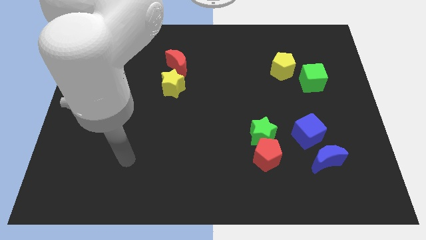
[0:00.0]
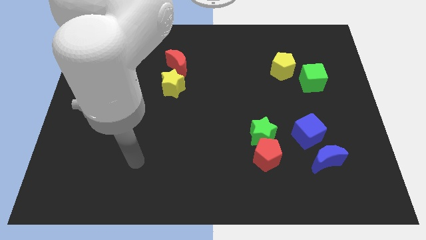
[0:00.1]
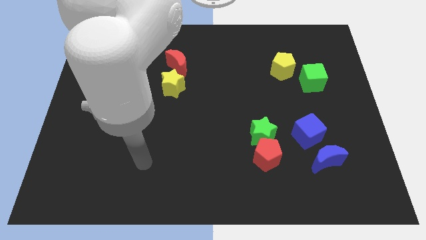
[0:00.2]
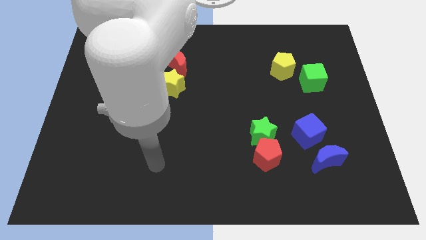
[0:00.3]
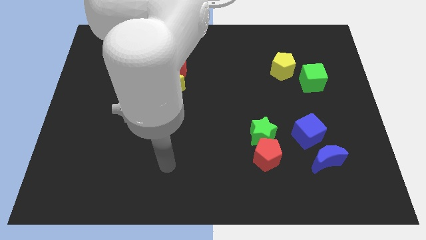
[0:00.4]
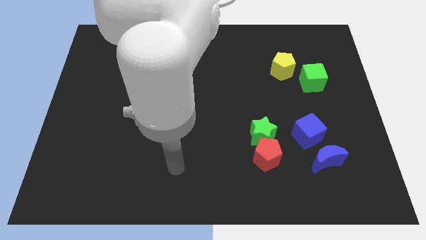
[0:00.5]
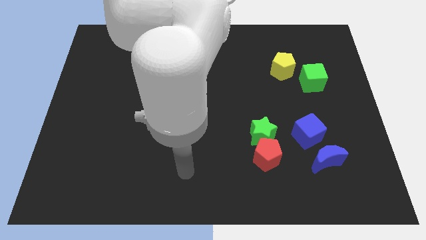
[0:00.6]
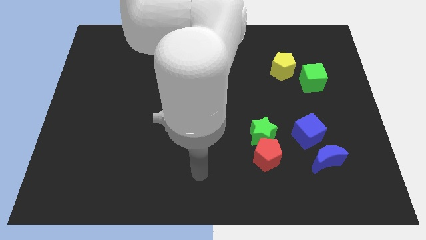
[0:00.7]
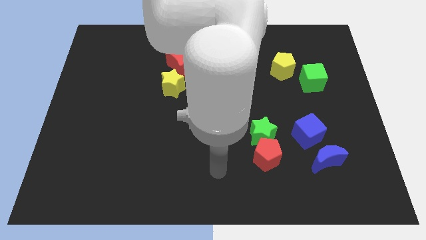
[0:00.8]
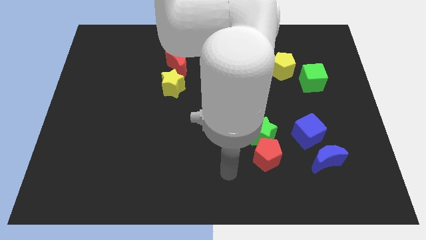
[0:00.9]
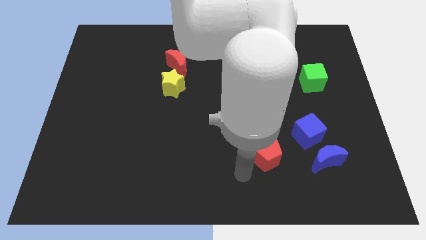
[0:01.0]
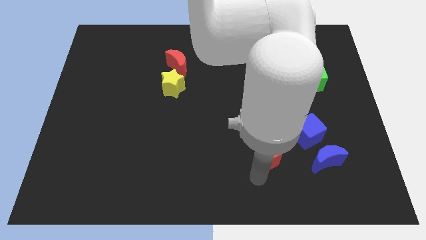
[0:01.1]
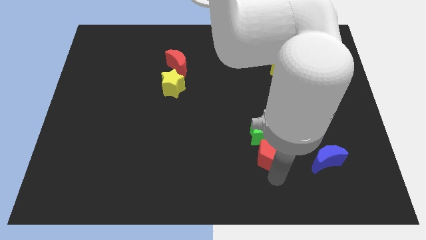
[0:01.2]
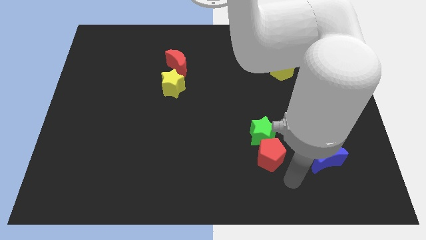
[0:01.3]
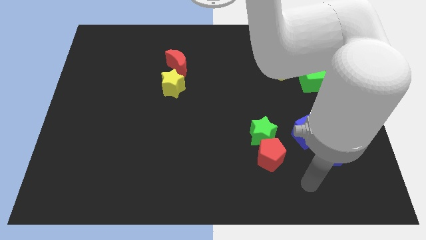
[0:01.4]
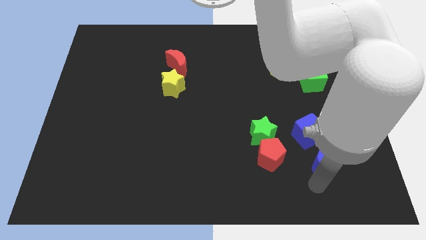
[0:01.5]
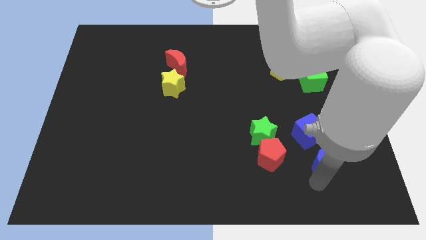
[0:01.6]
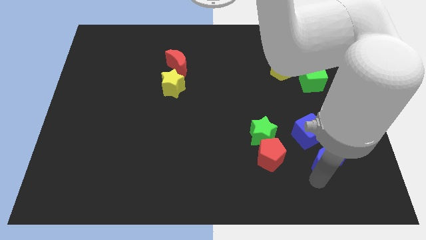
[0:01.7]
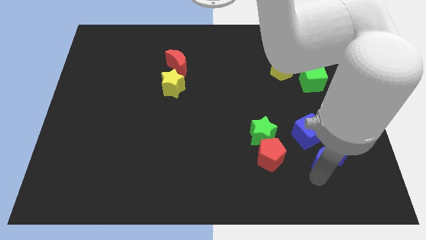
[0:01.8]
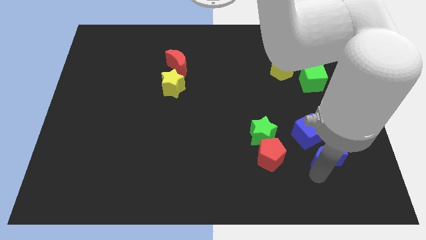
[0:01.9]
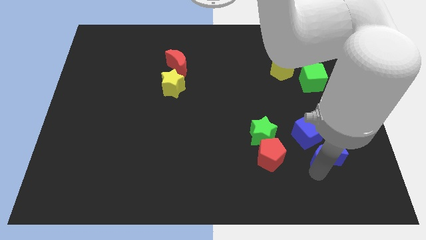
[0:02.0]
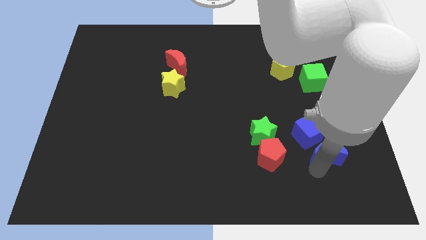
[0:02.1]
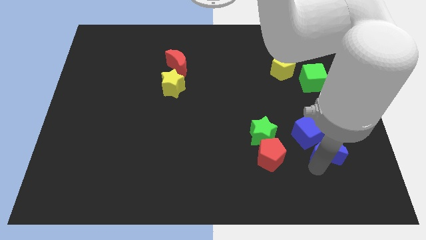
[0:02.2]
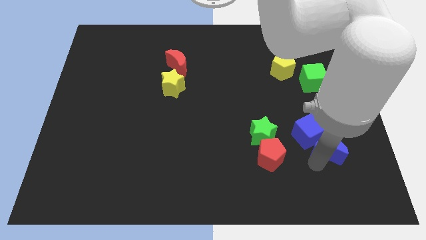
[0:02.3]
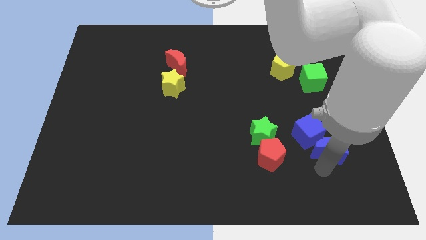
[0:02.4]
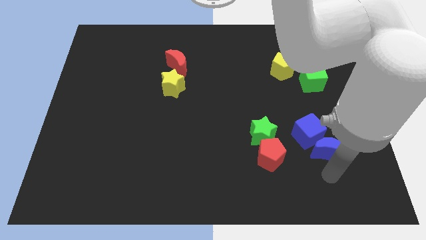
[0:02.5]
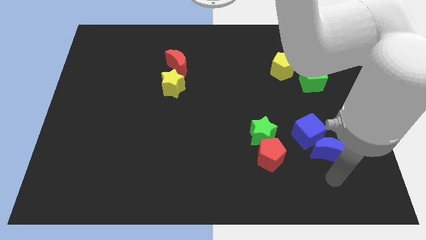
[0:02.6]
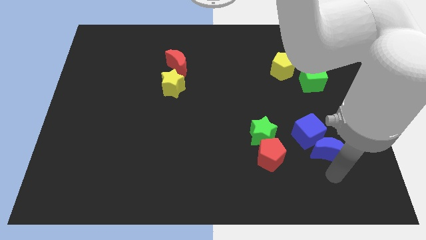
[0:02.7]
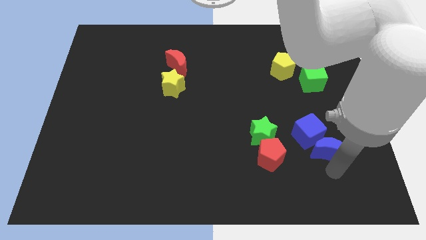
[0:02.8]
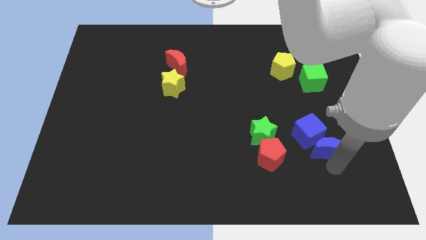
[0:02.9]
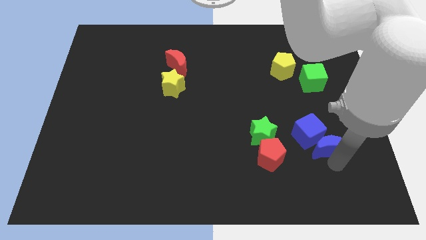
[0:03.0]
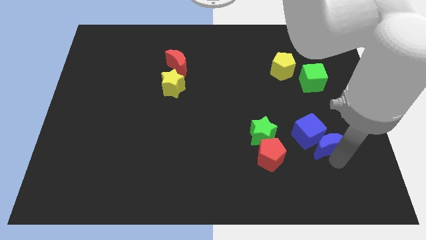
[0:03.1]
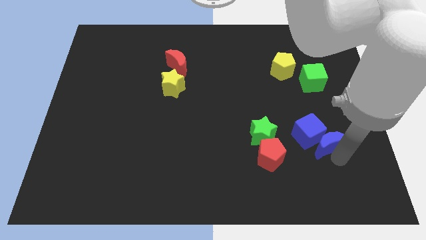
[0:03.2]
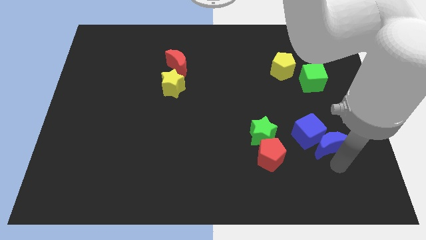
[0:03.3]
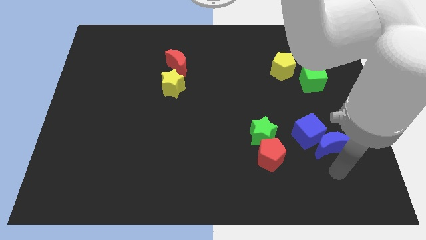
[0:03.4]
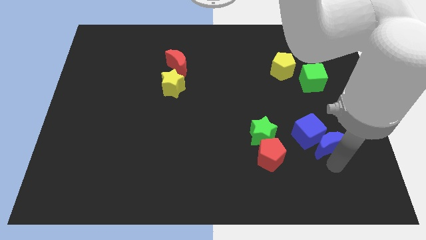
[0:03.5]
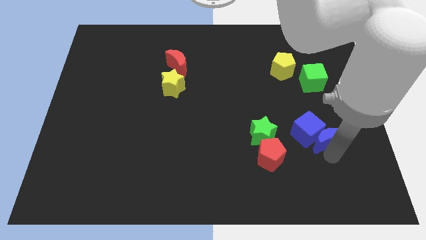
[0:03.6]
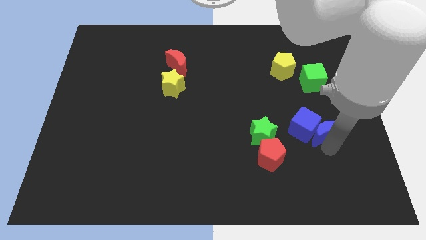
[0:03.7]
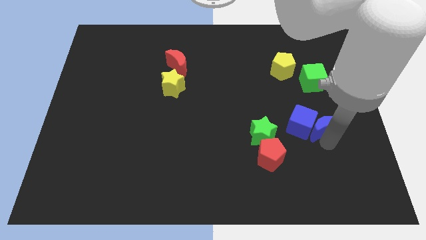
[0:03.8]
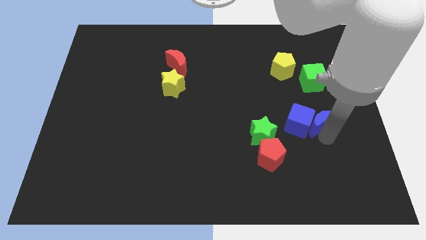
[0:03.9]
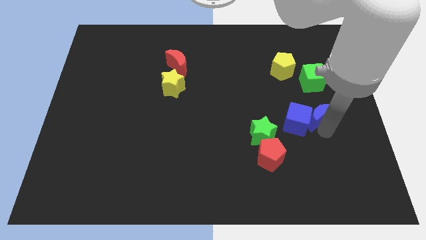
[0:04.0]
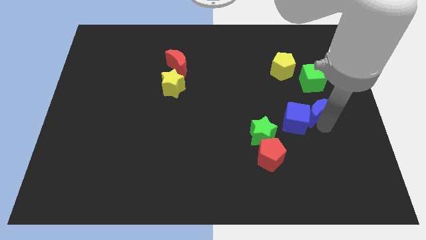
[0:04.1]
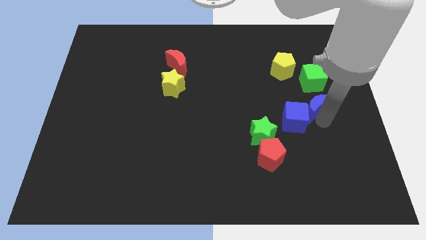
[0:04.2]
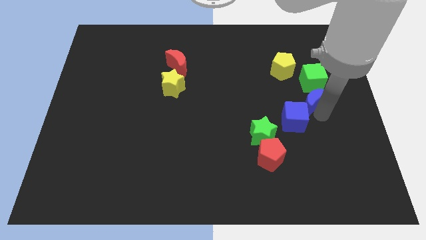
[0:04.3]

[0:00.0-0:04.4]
push the blue moon diagonally down and to the left of the green cube

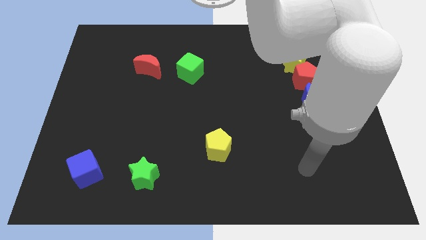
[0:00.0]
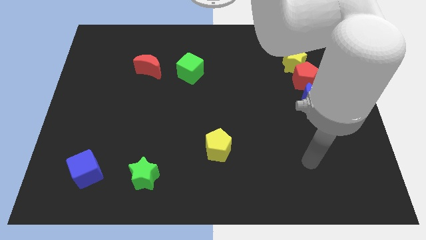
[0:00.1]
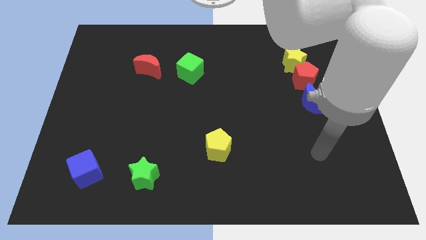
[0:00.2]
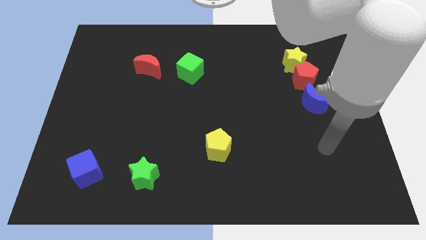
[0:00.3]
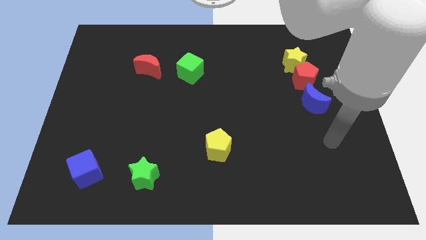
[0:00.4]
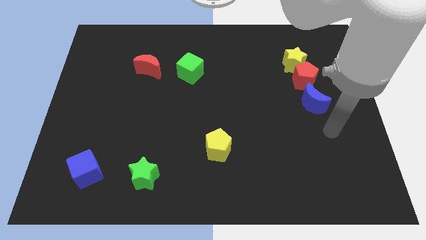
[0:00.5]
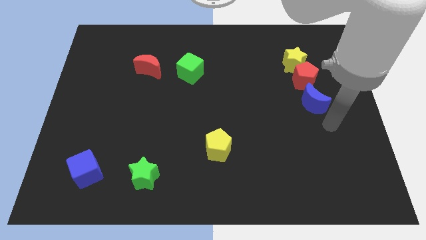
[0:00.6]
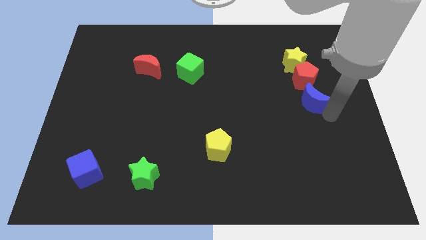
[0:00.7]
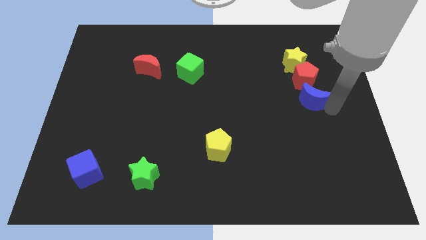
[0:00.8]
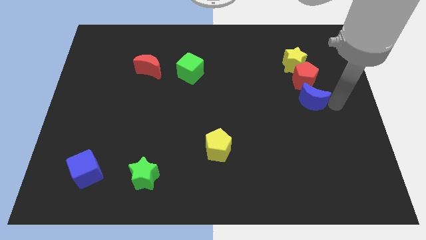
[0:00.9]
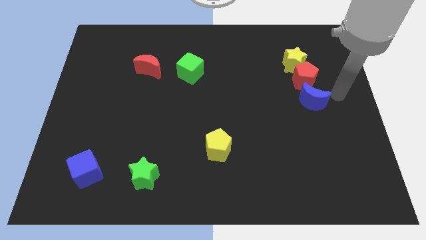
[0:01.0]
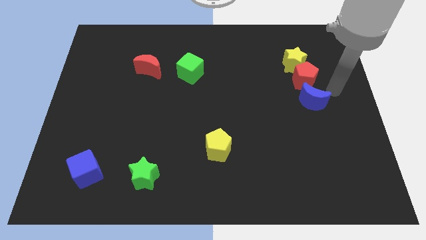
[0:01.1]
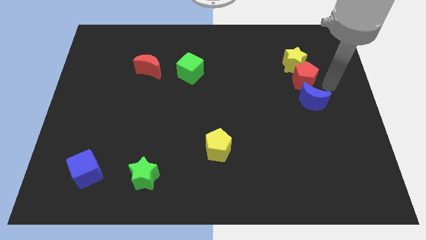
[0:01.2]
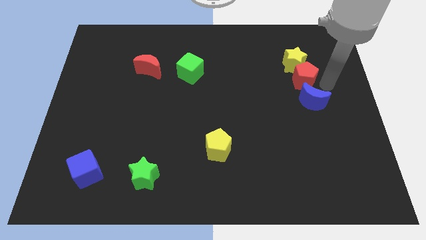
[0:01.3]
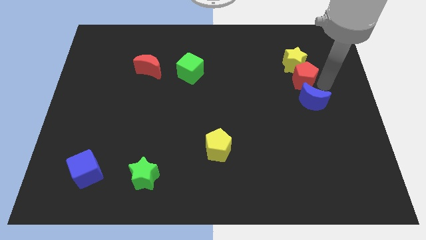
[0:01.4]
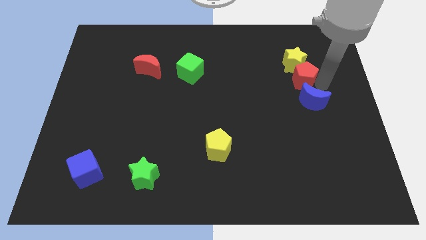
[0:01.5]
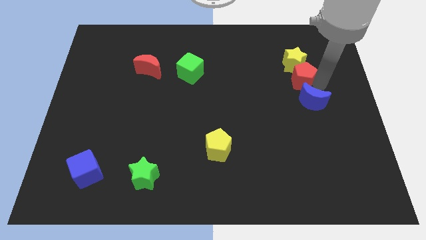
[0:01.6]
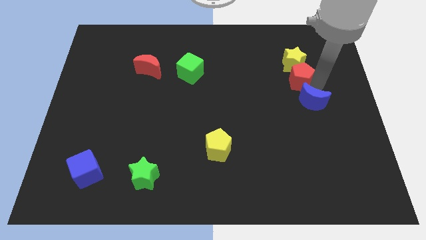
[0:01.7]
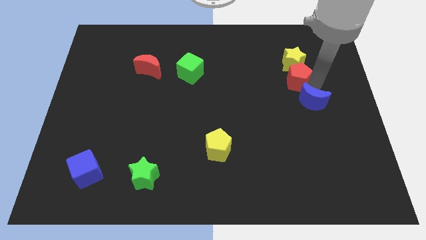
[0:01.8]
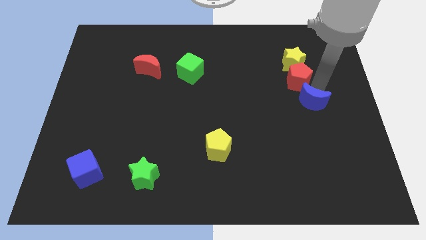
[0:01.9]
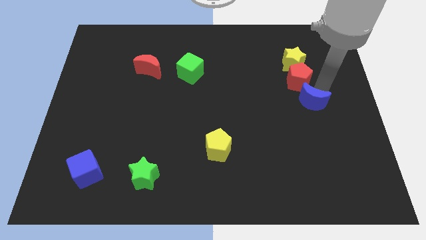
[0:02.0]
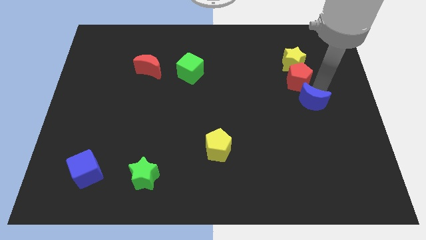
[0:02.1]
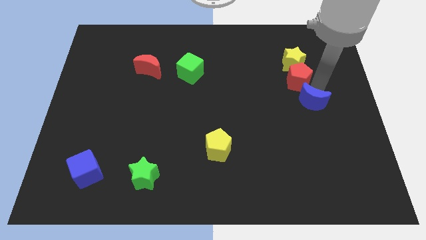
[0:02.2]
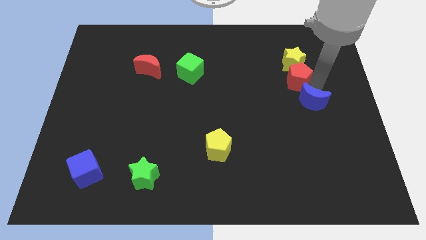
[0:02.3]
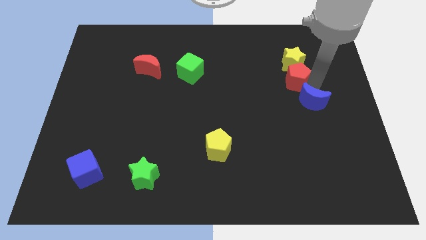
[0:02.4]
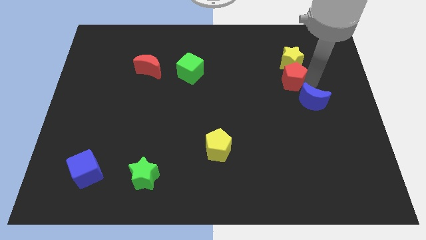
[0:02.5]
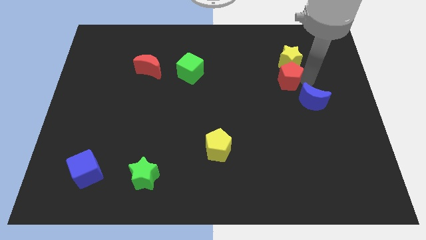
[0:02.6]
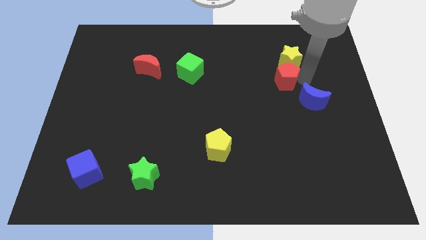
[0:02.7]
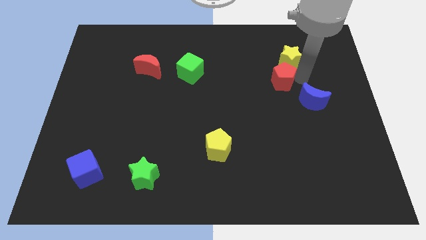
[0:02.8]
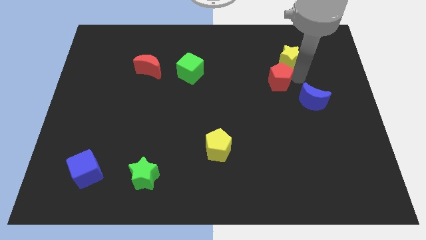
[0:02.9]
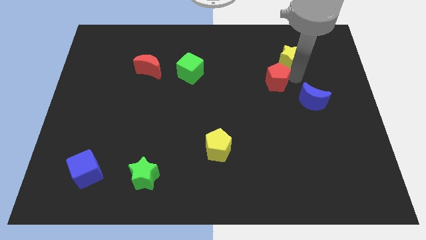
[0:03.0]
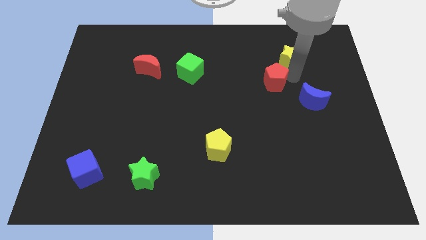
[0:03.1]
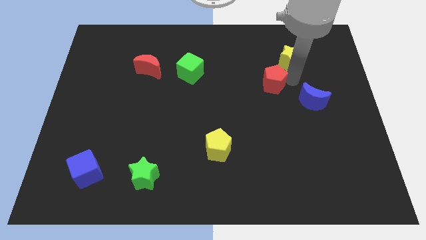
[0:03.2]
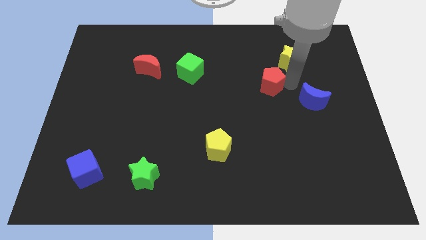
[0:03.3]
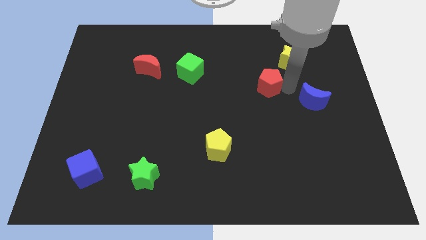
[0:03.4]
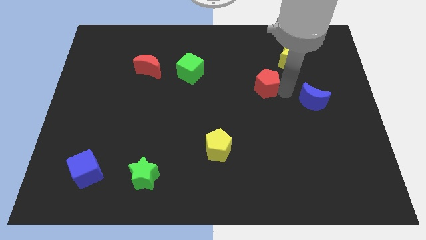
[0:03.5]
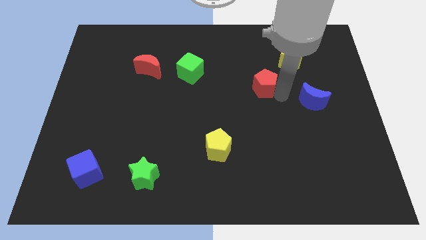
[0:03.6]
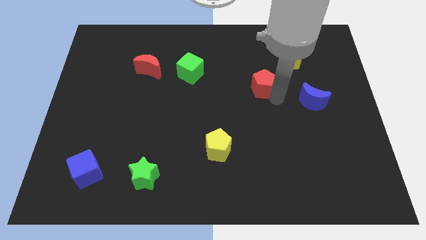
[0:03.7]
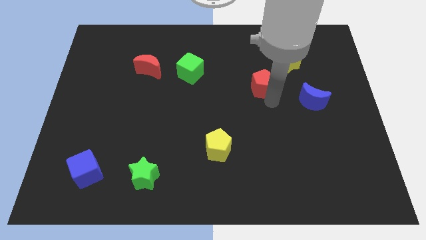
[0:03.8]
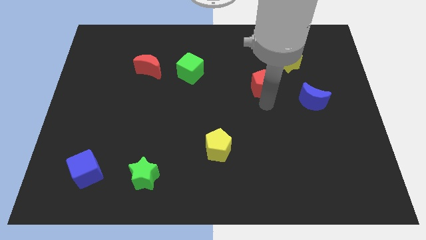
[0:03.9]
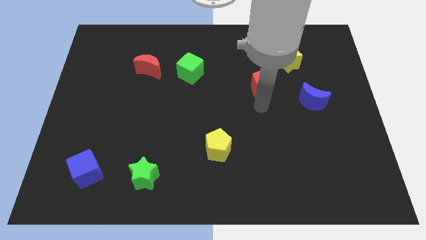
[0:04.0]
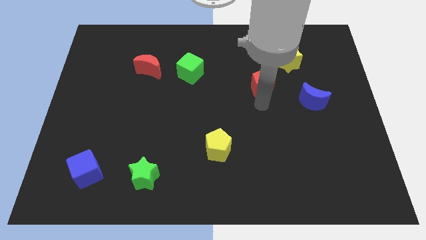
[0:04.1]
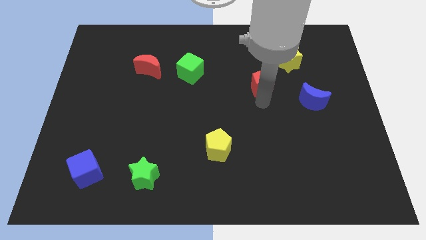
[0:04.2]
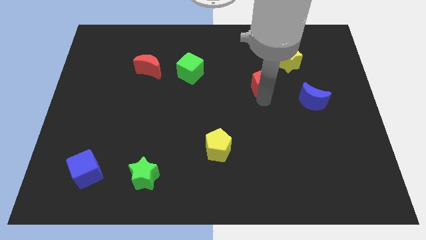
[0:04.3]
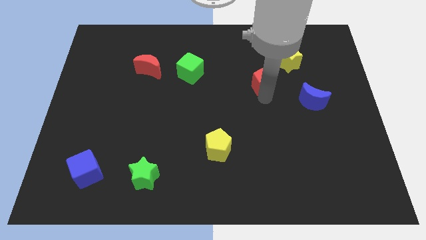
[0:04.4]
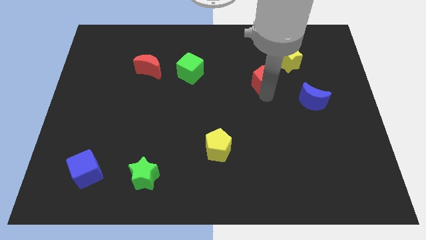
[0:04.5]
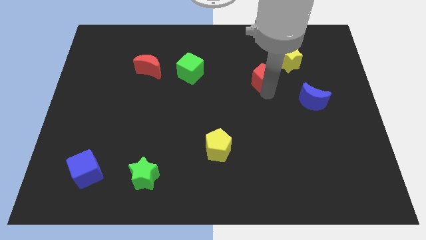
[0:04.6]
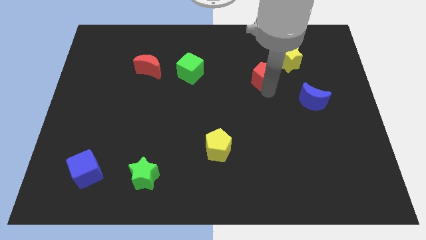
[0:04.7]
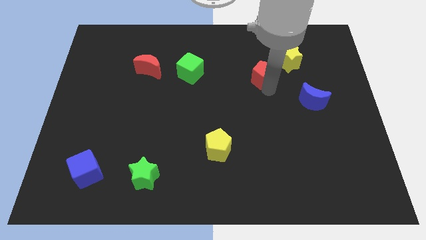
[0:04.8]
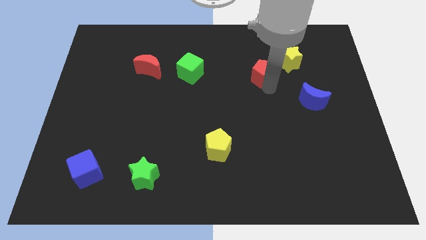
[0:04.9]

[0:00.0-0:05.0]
move the red pentagon left of the yellow star
